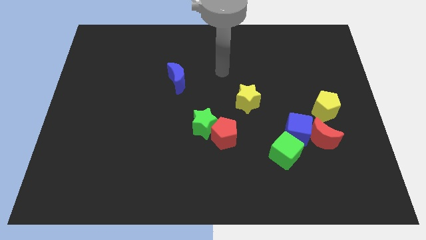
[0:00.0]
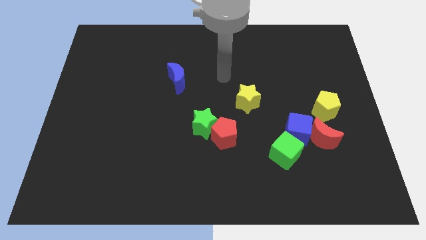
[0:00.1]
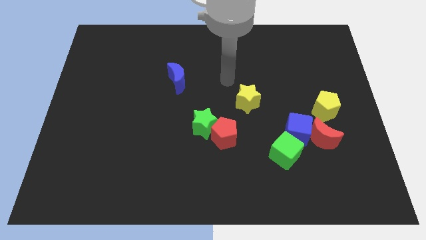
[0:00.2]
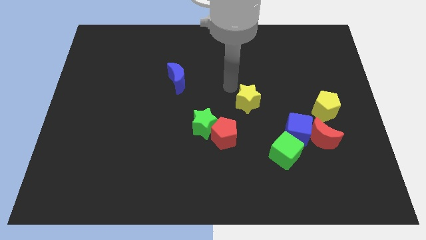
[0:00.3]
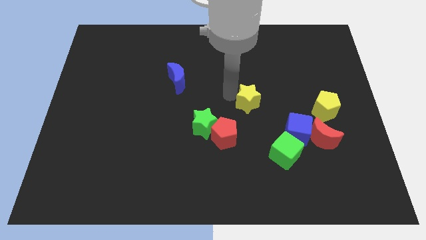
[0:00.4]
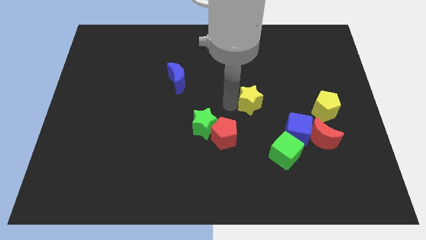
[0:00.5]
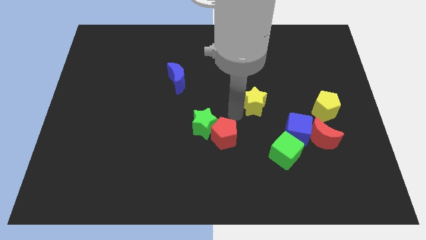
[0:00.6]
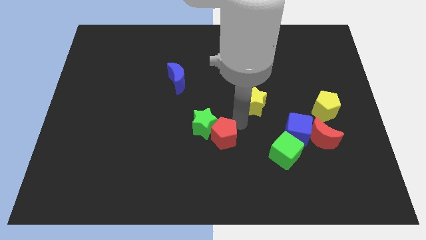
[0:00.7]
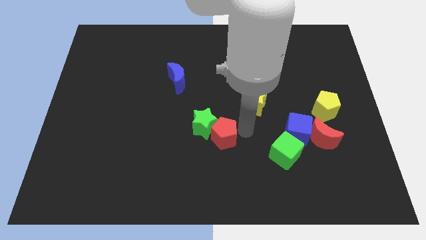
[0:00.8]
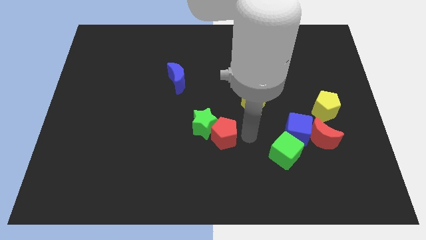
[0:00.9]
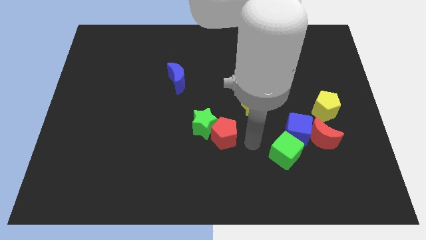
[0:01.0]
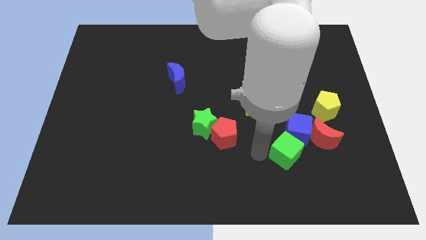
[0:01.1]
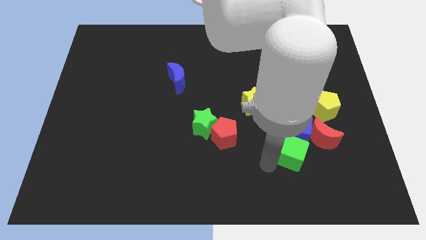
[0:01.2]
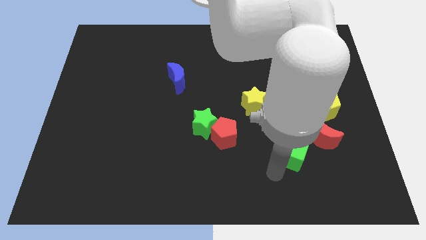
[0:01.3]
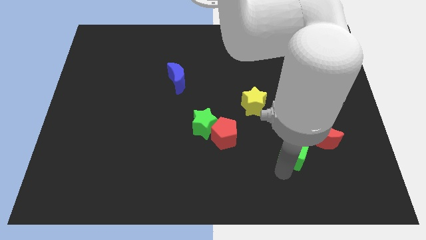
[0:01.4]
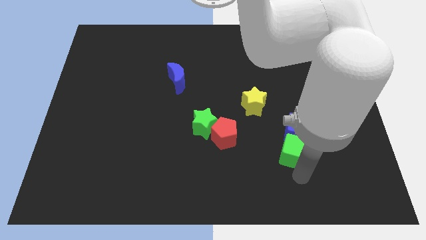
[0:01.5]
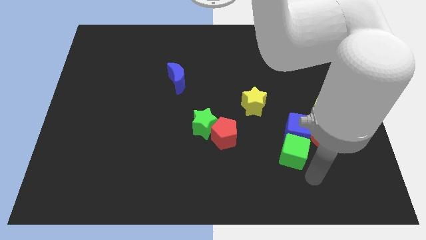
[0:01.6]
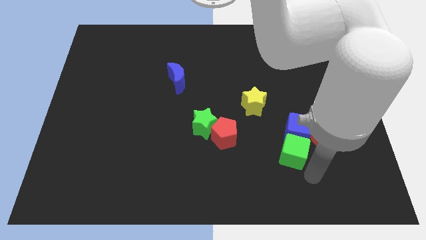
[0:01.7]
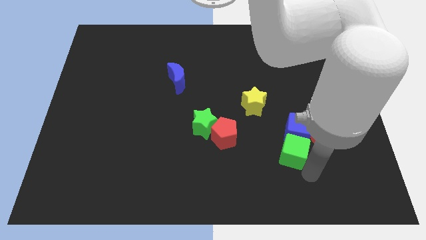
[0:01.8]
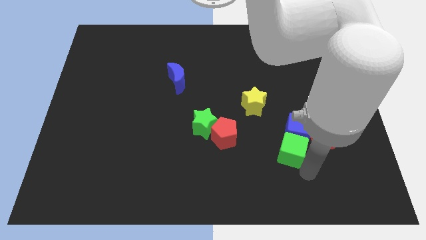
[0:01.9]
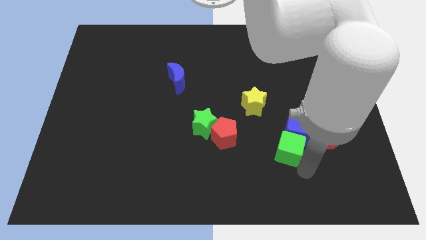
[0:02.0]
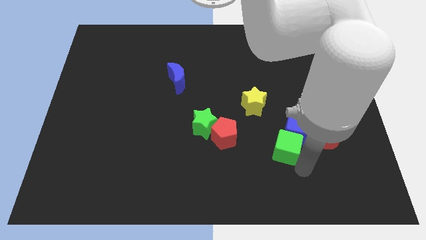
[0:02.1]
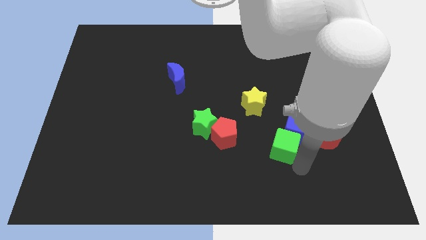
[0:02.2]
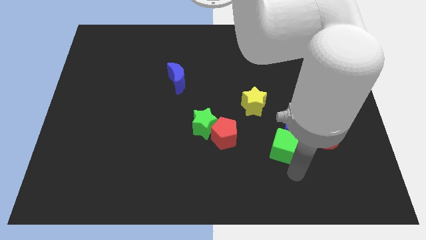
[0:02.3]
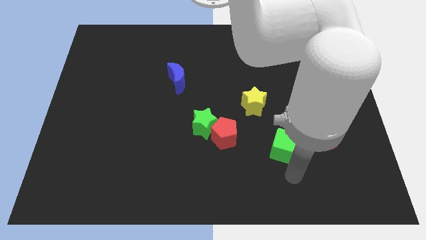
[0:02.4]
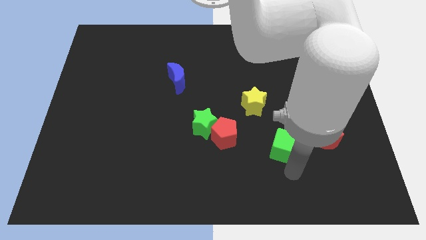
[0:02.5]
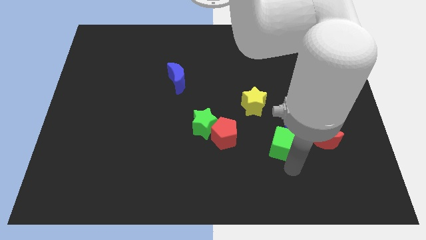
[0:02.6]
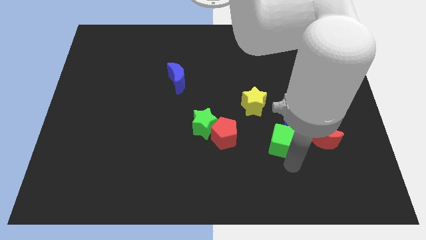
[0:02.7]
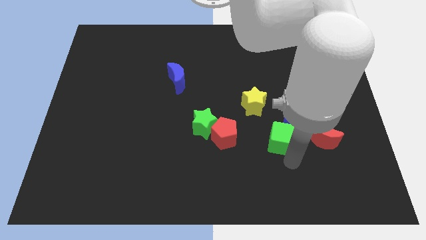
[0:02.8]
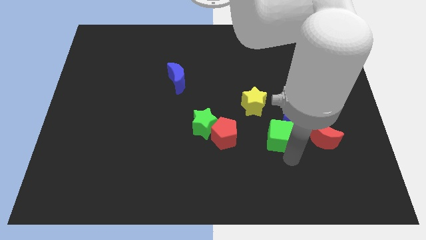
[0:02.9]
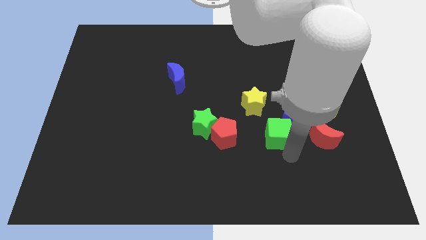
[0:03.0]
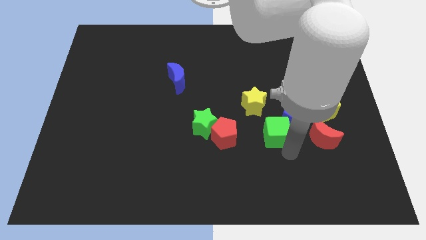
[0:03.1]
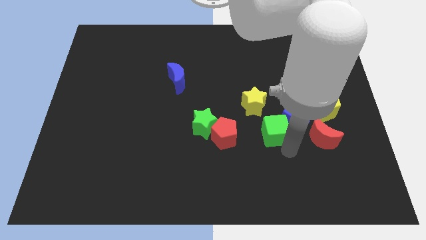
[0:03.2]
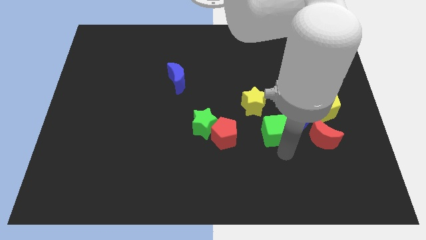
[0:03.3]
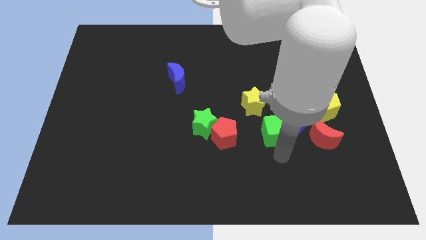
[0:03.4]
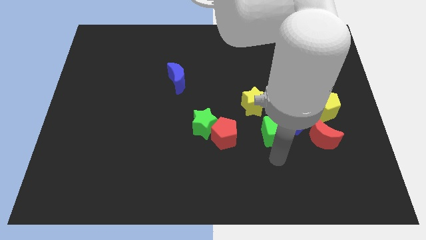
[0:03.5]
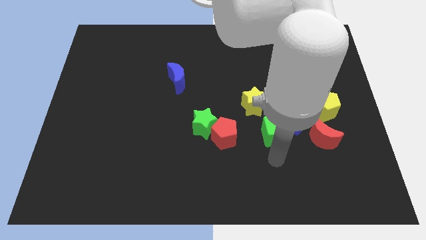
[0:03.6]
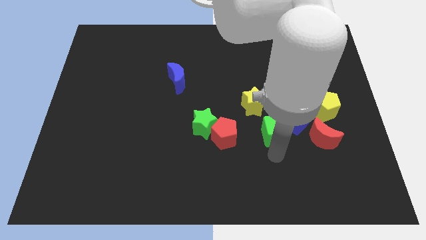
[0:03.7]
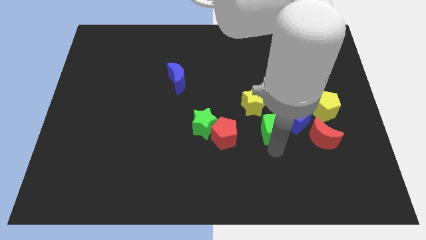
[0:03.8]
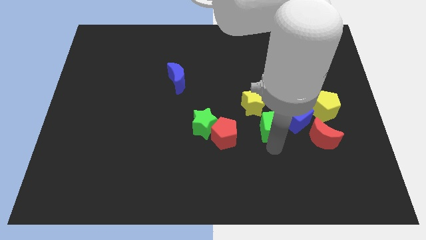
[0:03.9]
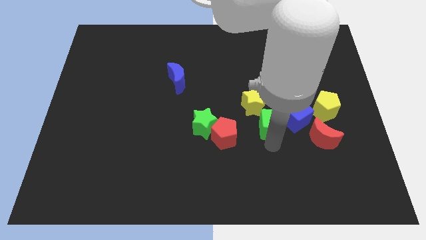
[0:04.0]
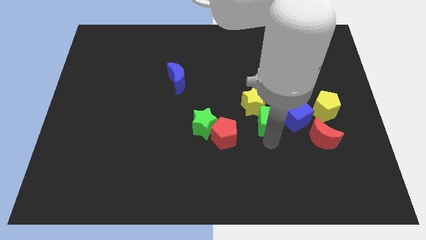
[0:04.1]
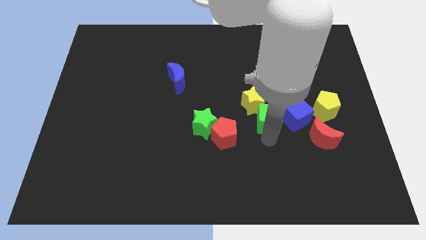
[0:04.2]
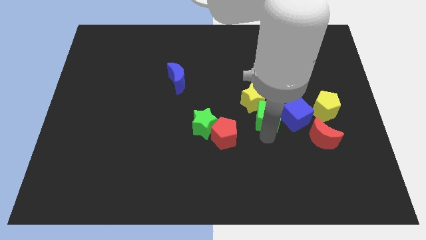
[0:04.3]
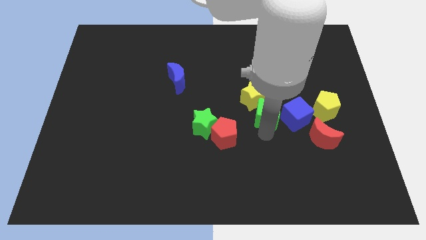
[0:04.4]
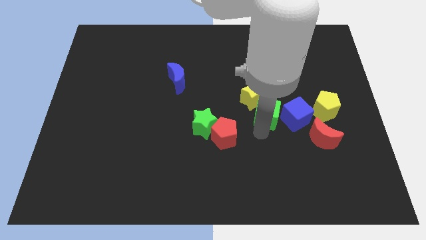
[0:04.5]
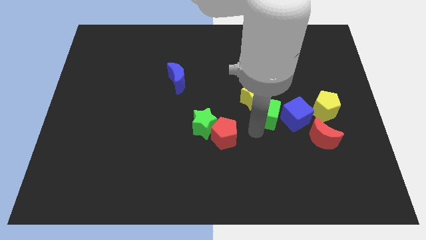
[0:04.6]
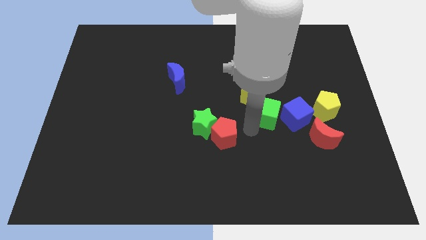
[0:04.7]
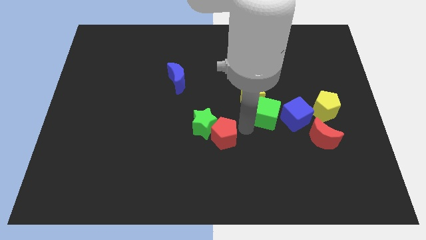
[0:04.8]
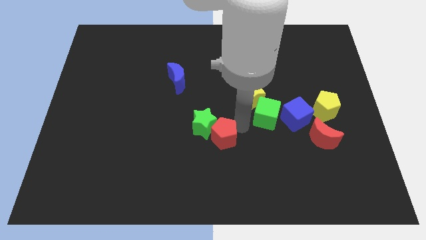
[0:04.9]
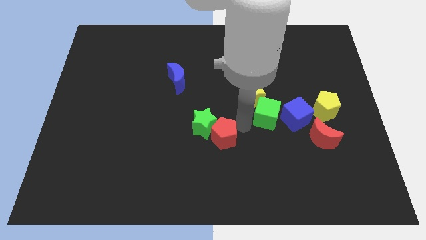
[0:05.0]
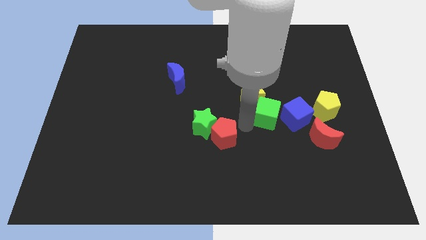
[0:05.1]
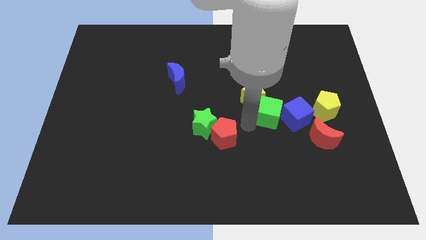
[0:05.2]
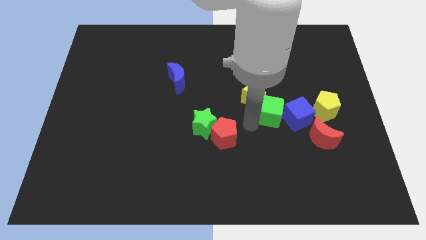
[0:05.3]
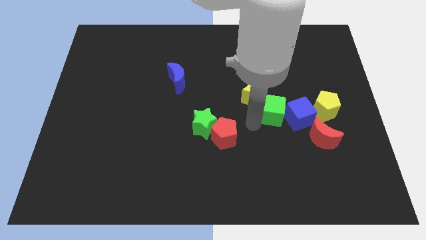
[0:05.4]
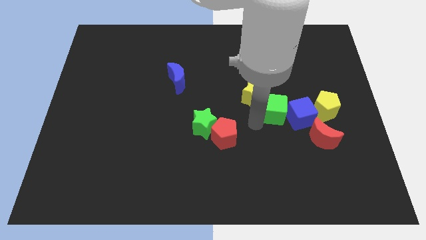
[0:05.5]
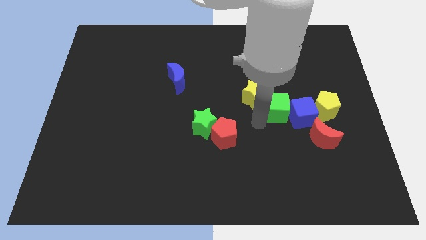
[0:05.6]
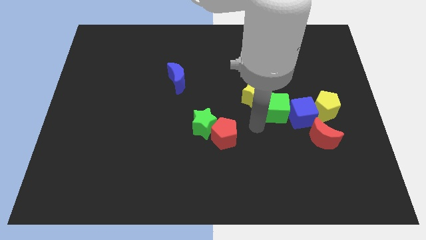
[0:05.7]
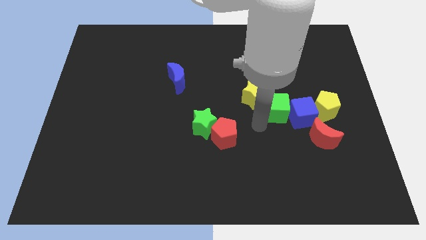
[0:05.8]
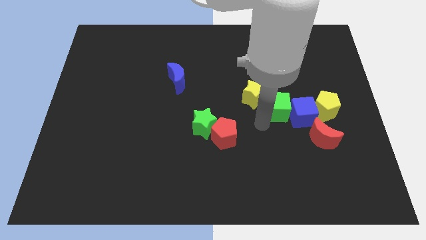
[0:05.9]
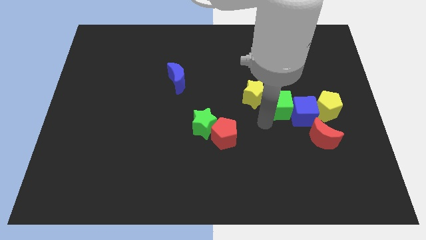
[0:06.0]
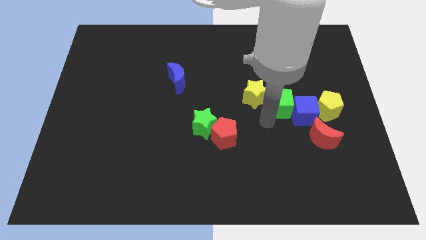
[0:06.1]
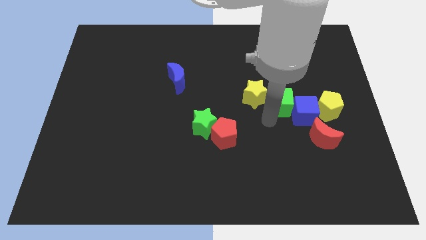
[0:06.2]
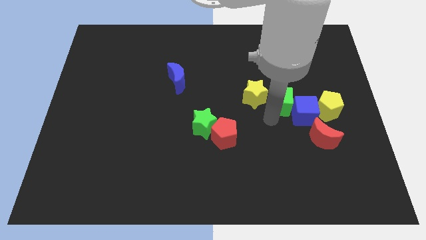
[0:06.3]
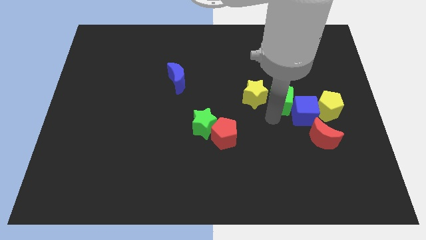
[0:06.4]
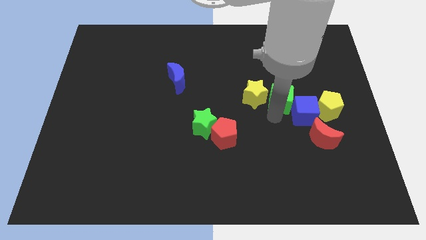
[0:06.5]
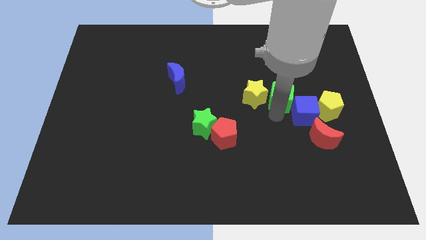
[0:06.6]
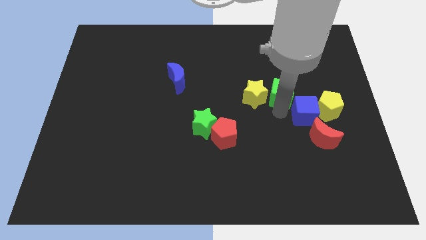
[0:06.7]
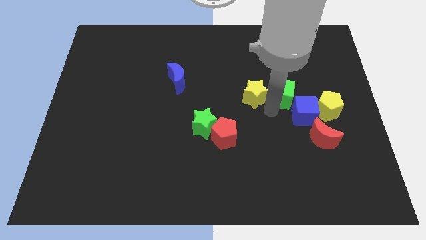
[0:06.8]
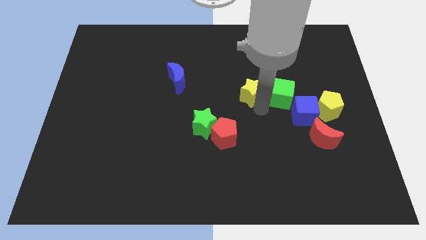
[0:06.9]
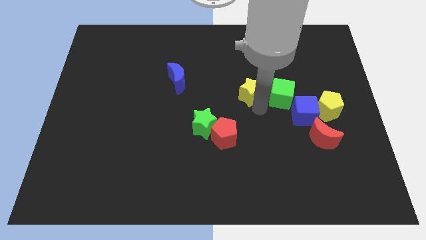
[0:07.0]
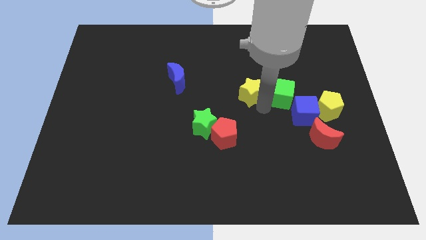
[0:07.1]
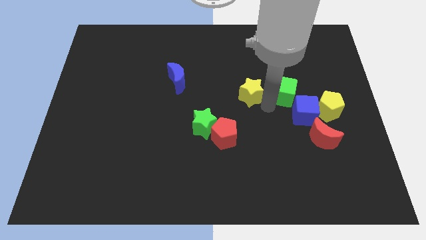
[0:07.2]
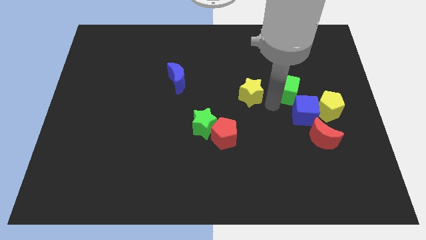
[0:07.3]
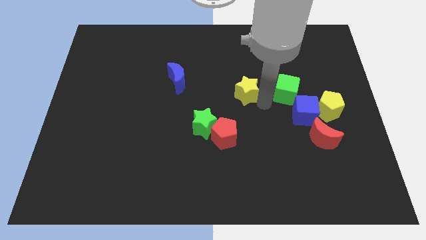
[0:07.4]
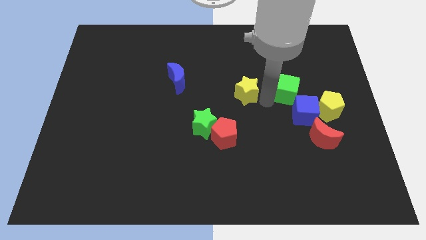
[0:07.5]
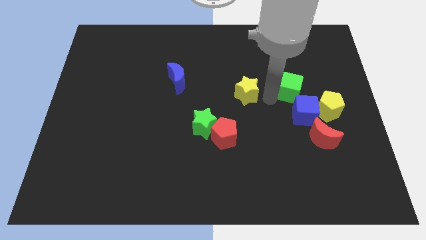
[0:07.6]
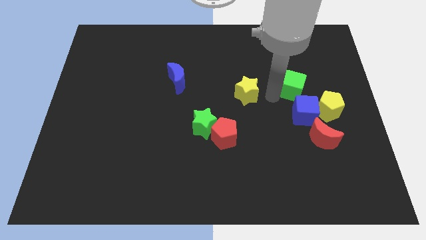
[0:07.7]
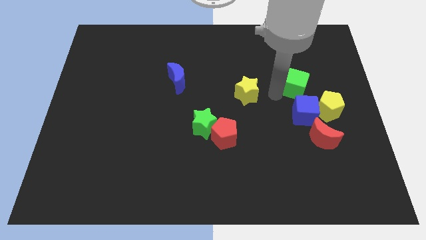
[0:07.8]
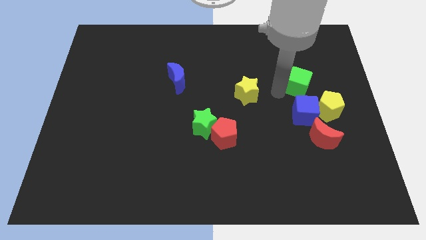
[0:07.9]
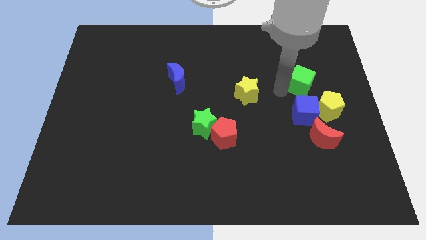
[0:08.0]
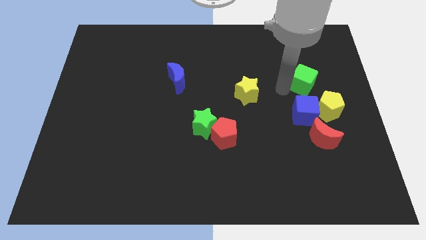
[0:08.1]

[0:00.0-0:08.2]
move the green cube above the yellow pentagon
